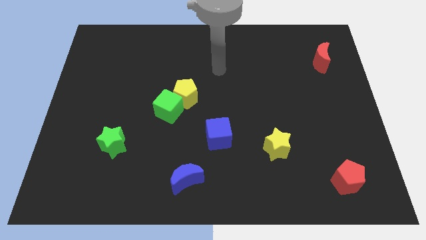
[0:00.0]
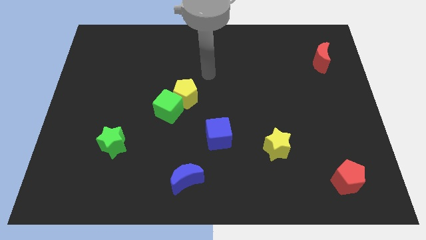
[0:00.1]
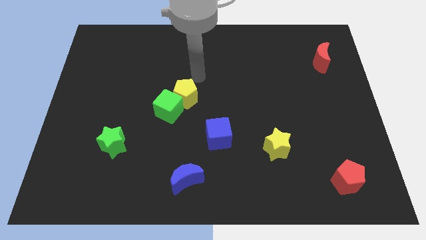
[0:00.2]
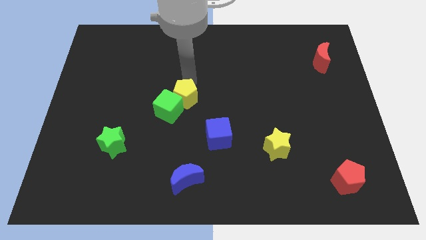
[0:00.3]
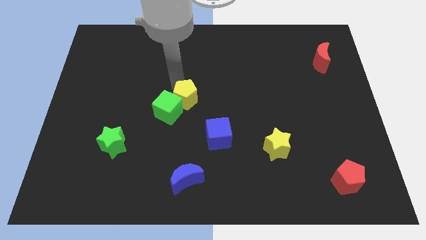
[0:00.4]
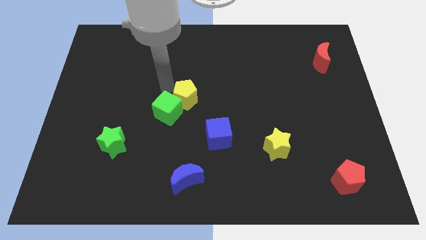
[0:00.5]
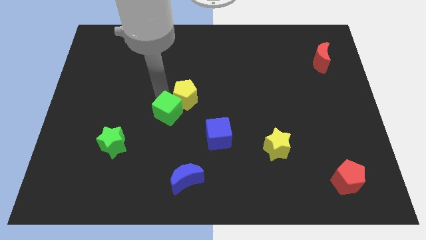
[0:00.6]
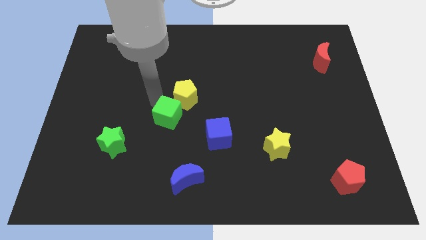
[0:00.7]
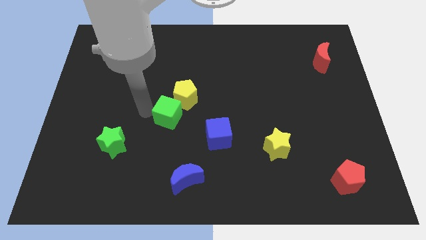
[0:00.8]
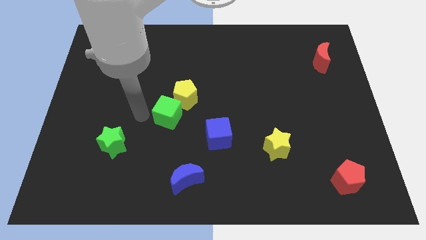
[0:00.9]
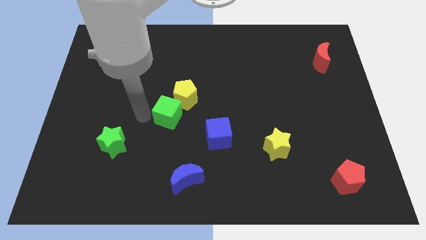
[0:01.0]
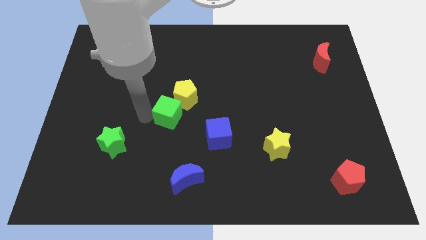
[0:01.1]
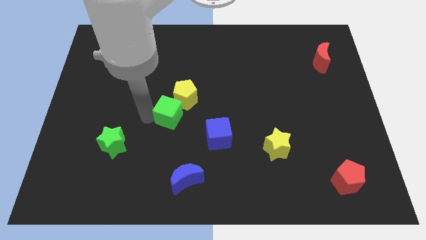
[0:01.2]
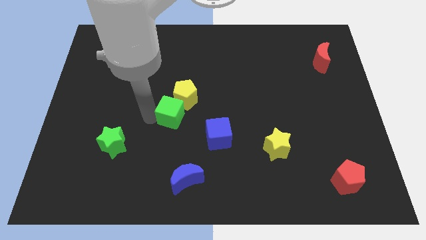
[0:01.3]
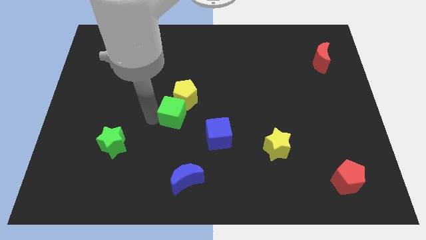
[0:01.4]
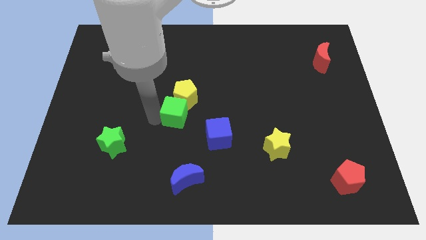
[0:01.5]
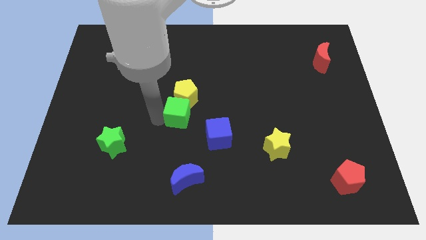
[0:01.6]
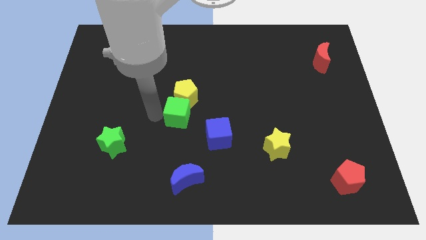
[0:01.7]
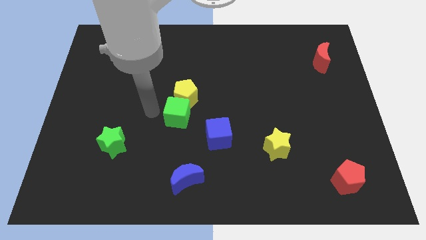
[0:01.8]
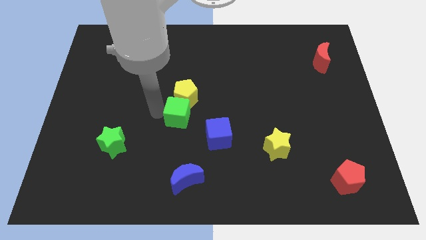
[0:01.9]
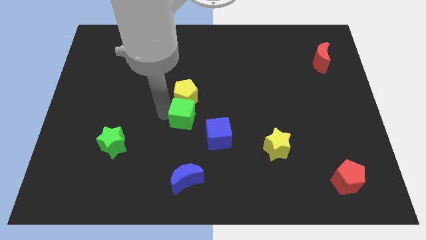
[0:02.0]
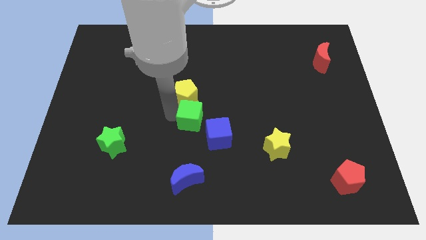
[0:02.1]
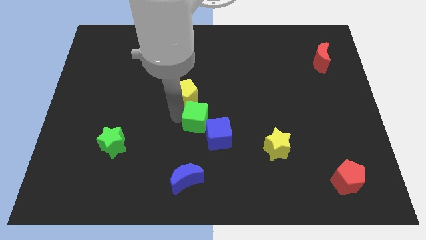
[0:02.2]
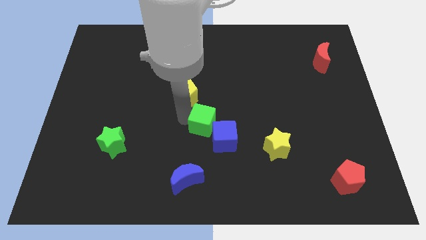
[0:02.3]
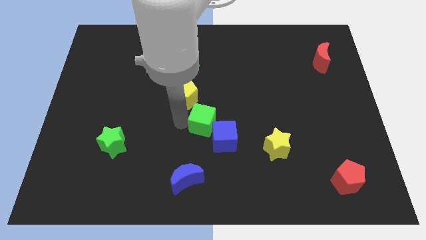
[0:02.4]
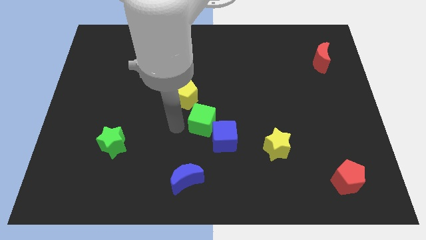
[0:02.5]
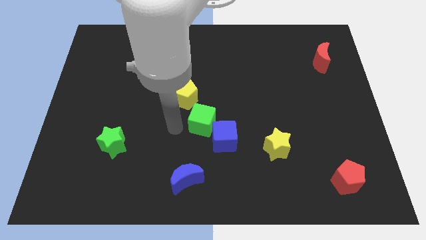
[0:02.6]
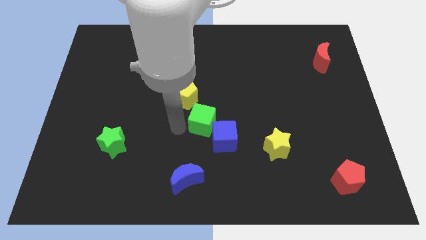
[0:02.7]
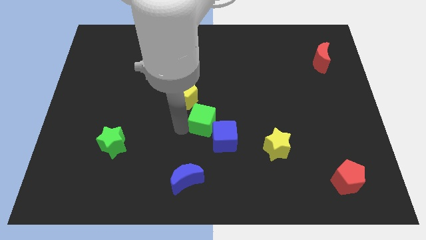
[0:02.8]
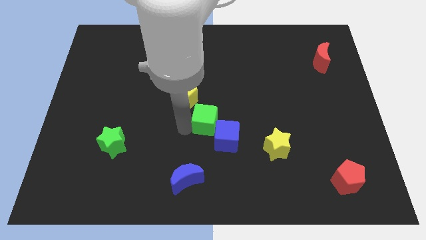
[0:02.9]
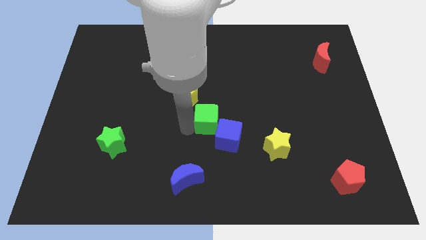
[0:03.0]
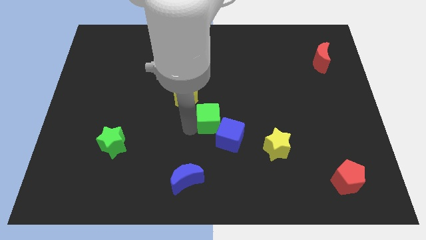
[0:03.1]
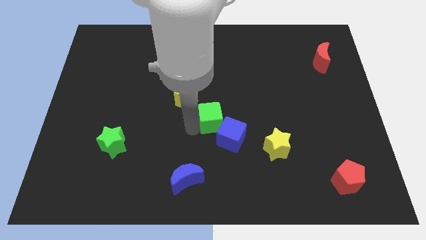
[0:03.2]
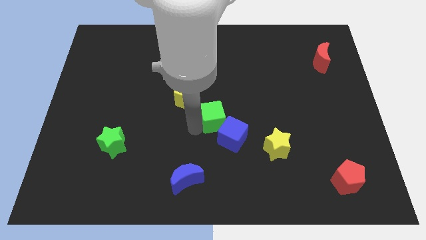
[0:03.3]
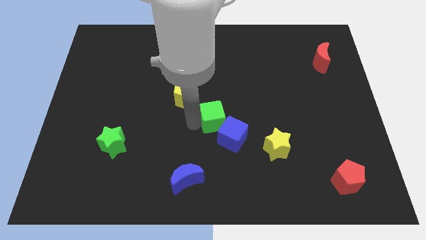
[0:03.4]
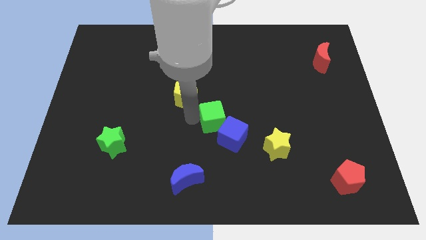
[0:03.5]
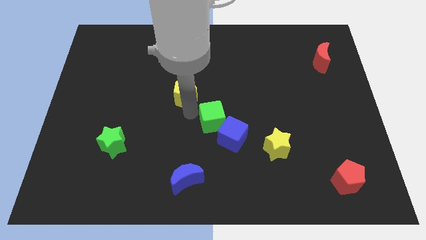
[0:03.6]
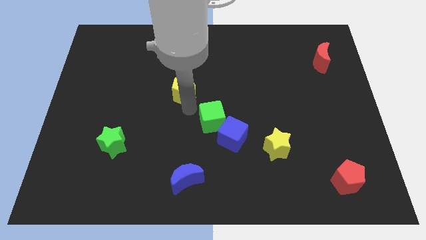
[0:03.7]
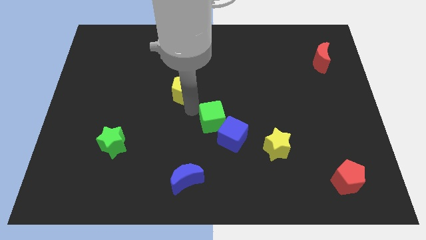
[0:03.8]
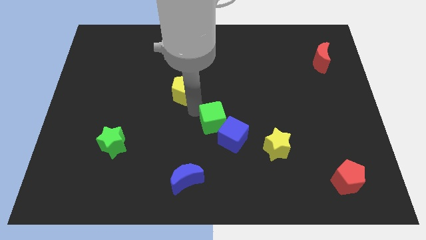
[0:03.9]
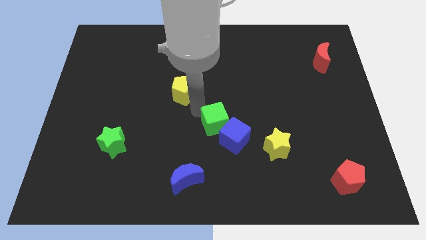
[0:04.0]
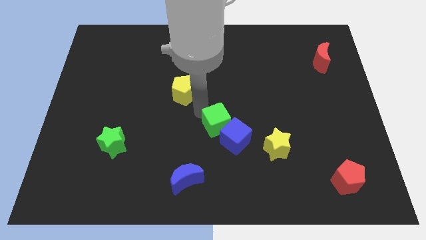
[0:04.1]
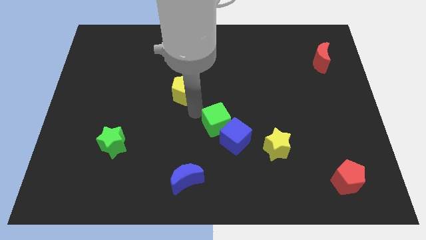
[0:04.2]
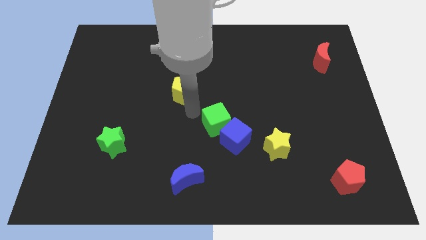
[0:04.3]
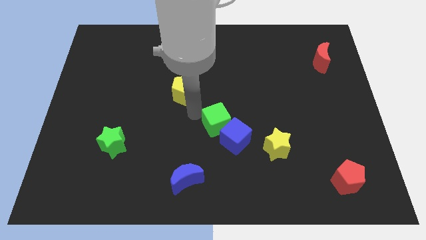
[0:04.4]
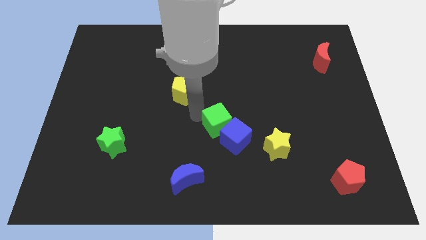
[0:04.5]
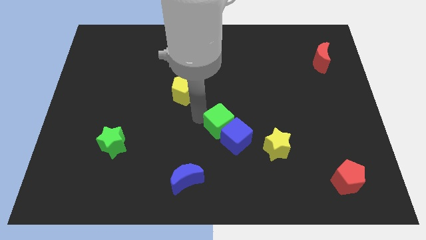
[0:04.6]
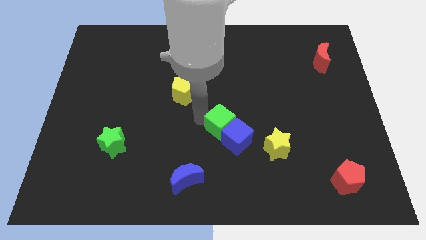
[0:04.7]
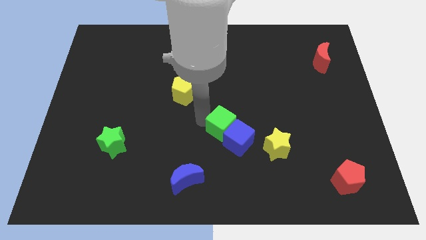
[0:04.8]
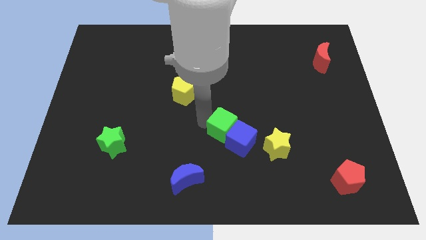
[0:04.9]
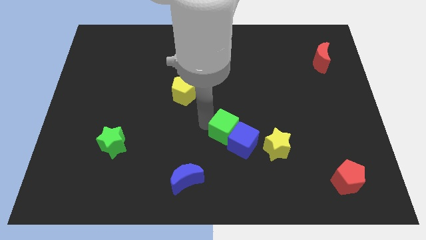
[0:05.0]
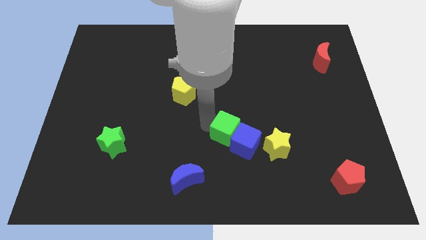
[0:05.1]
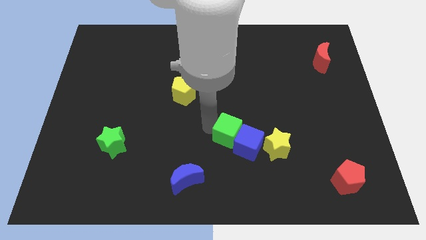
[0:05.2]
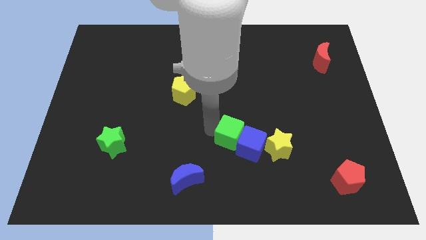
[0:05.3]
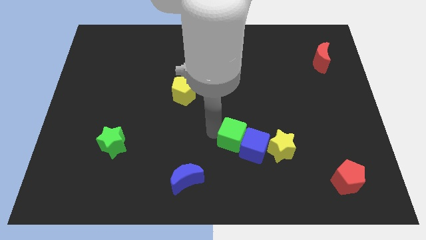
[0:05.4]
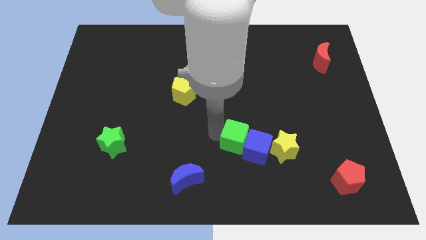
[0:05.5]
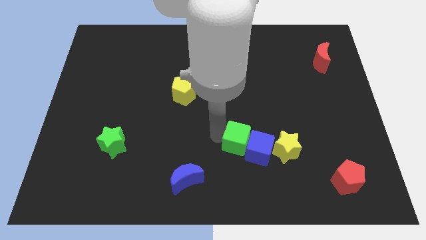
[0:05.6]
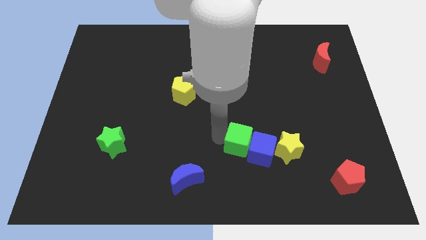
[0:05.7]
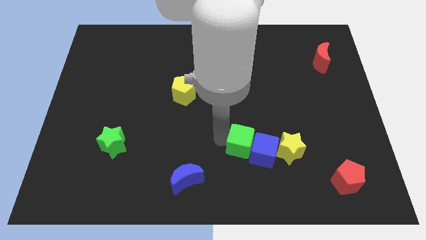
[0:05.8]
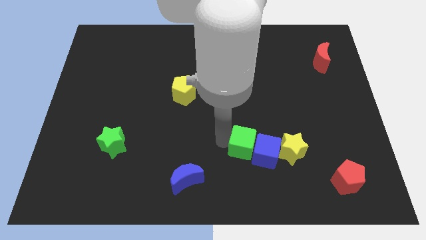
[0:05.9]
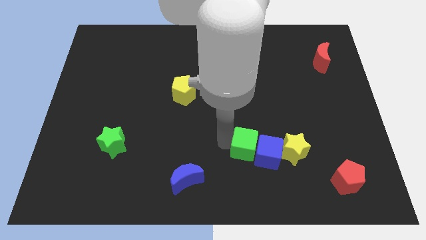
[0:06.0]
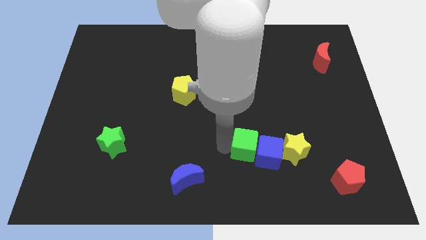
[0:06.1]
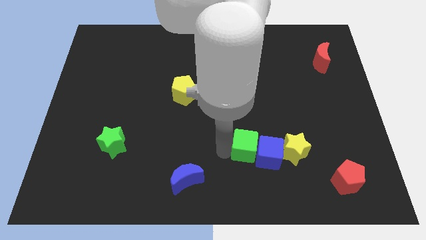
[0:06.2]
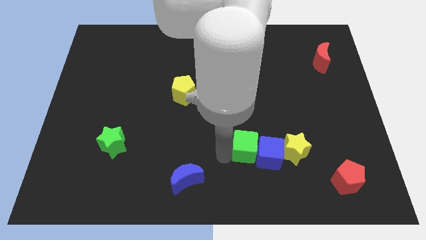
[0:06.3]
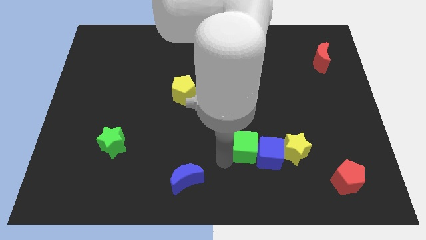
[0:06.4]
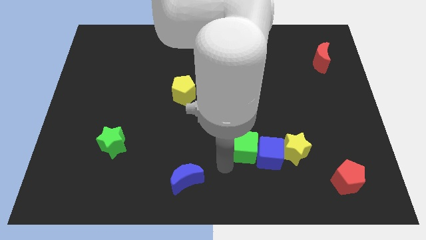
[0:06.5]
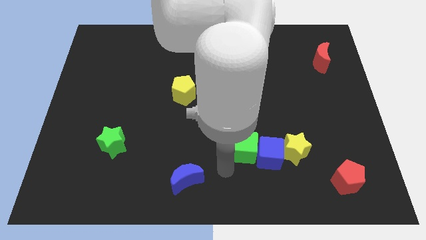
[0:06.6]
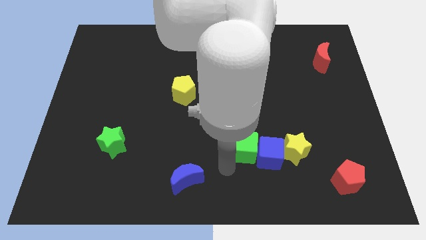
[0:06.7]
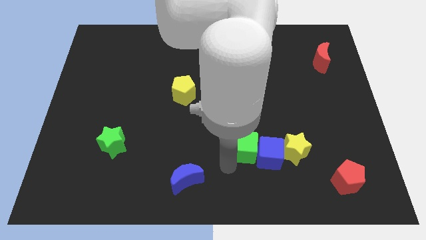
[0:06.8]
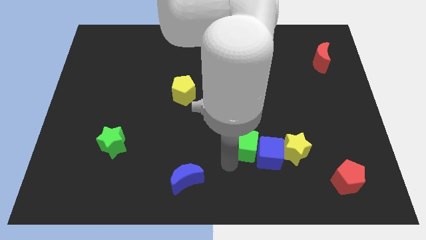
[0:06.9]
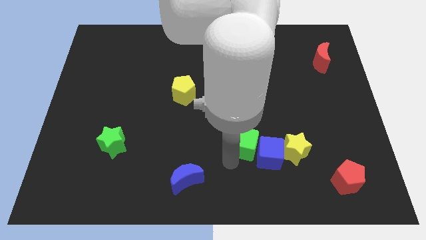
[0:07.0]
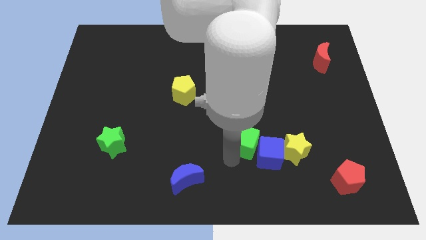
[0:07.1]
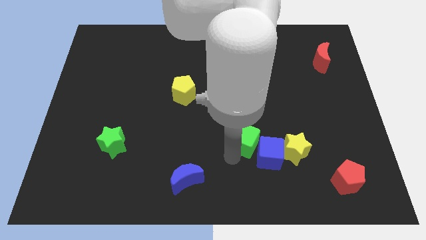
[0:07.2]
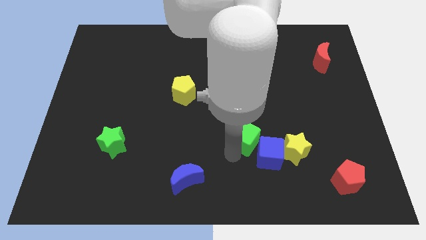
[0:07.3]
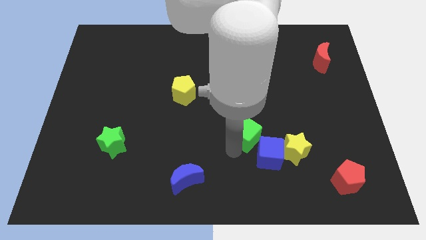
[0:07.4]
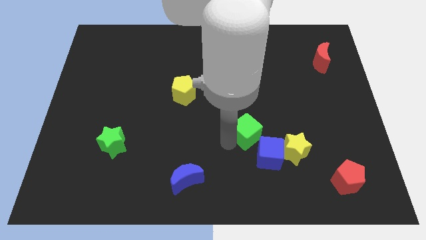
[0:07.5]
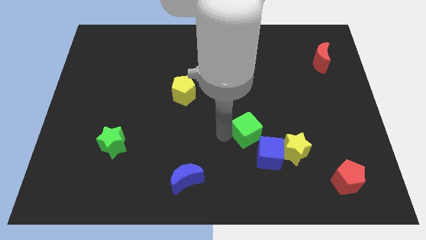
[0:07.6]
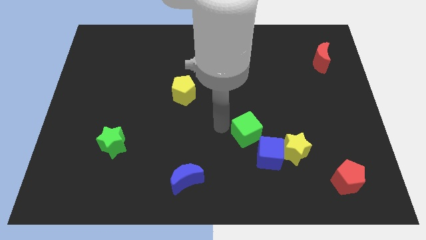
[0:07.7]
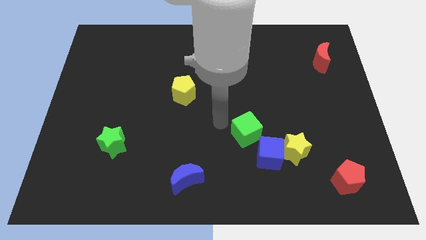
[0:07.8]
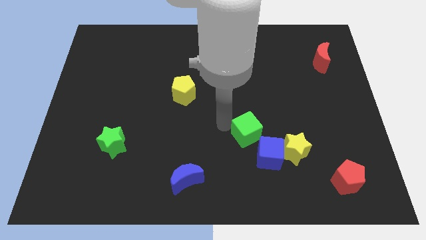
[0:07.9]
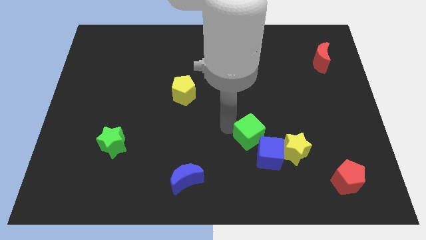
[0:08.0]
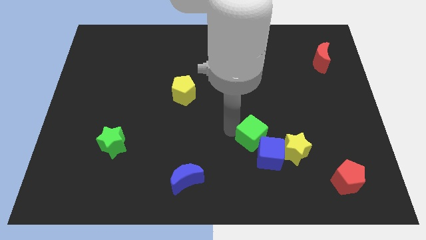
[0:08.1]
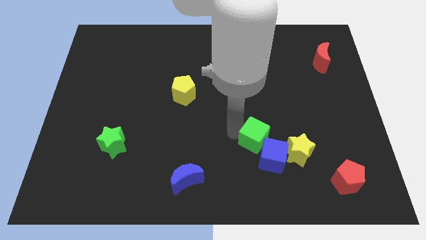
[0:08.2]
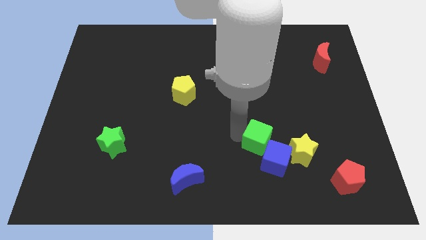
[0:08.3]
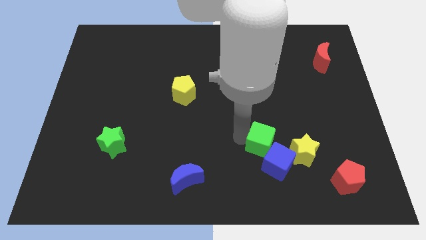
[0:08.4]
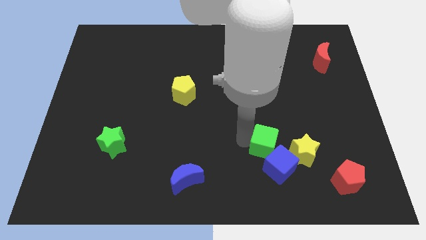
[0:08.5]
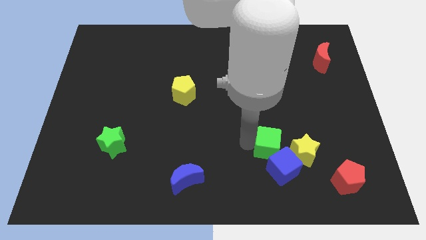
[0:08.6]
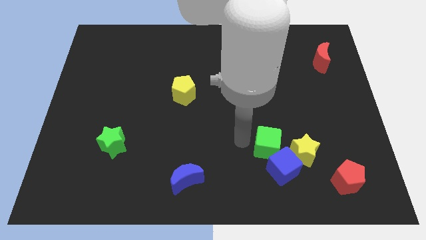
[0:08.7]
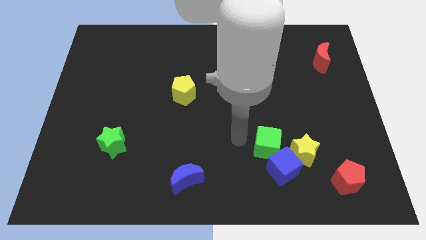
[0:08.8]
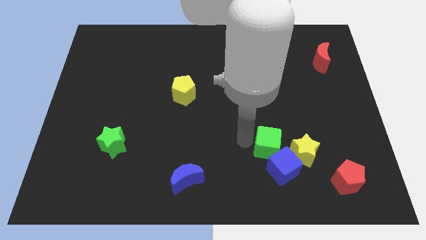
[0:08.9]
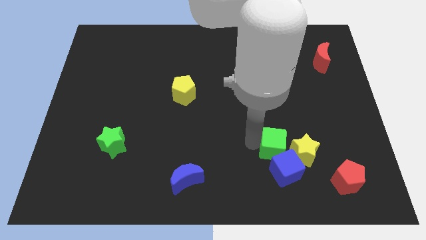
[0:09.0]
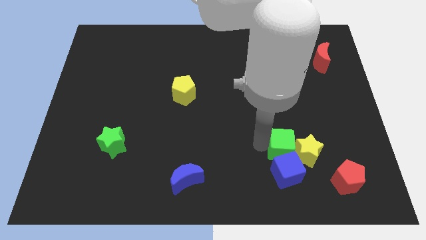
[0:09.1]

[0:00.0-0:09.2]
put the green cube next to the yellow star
